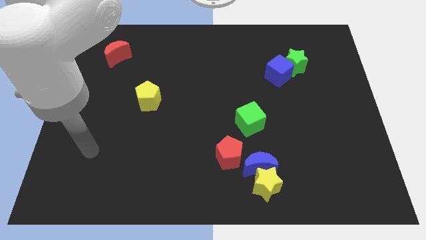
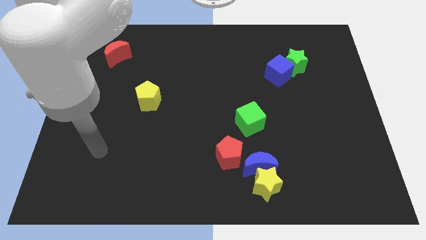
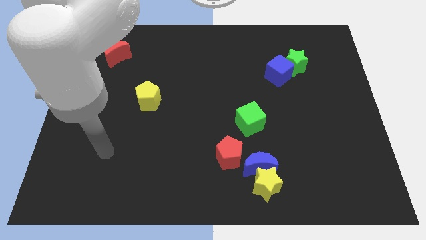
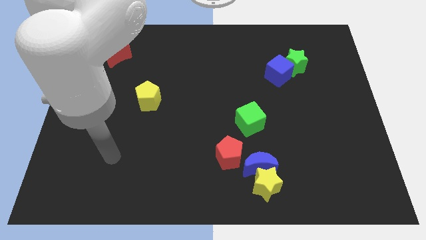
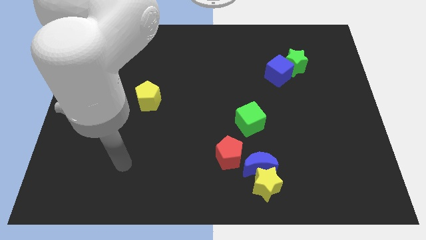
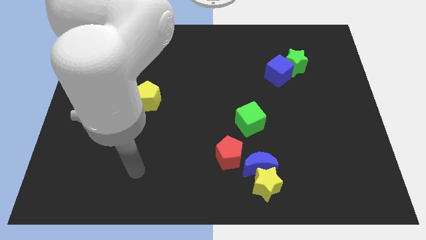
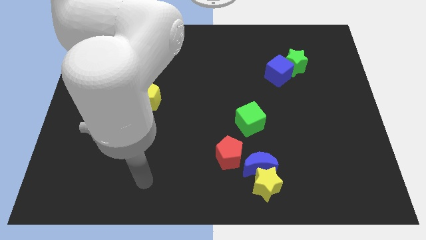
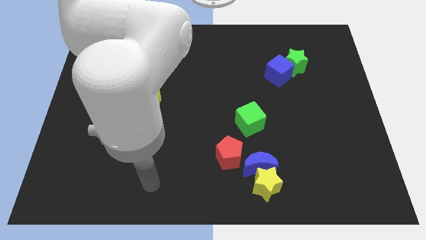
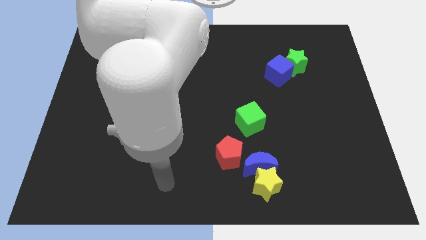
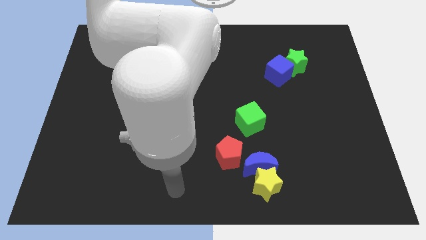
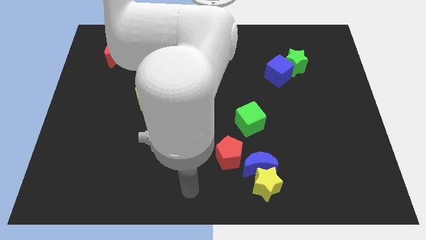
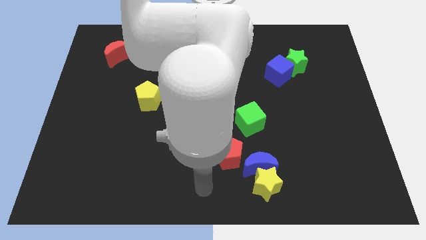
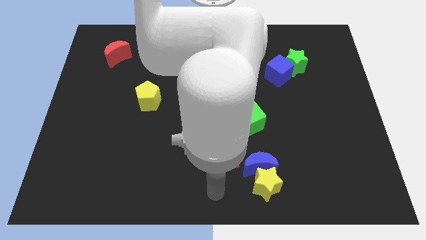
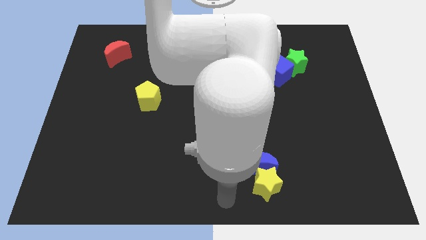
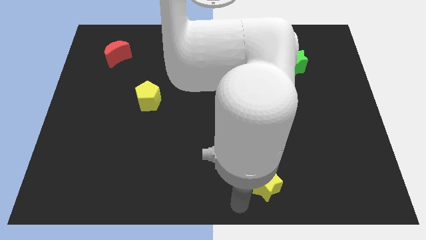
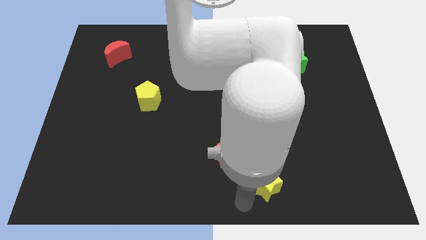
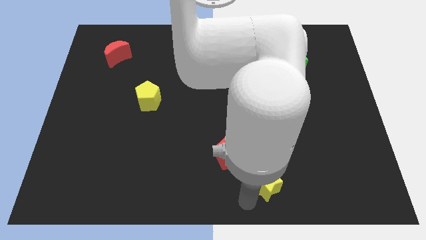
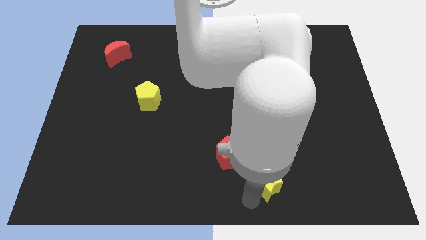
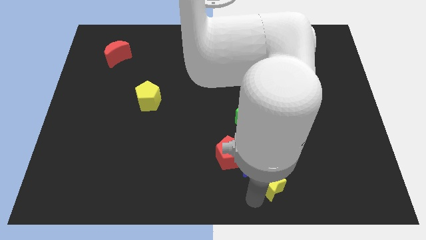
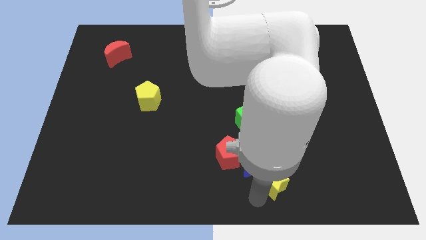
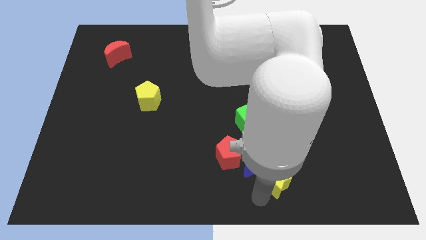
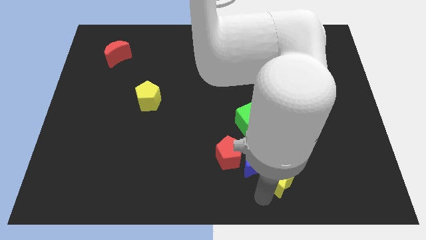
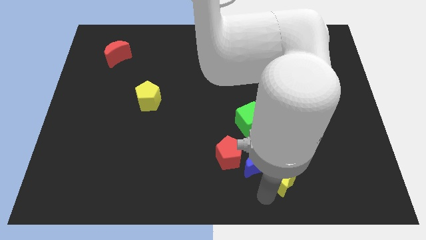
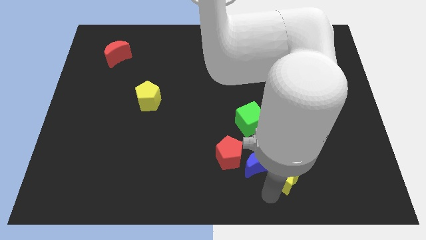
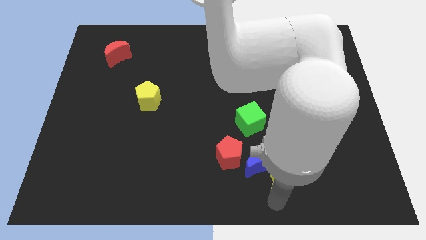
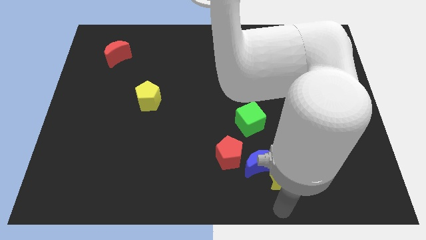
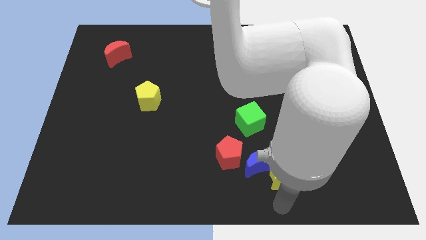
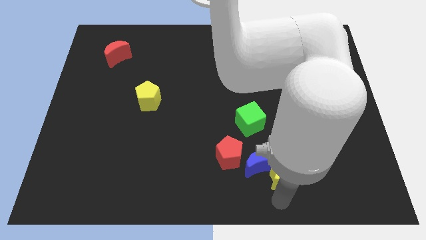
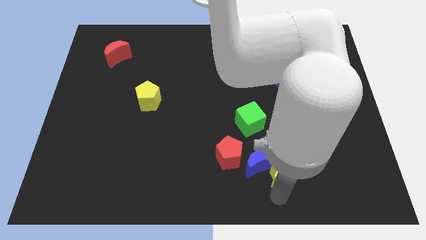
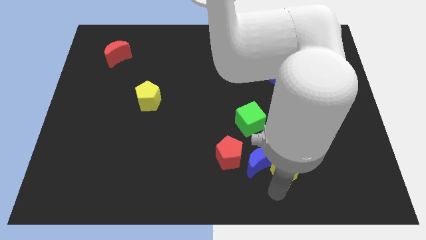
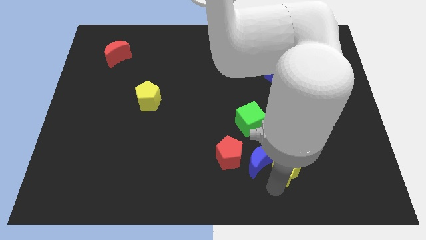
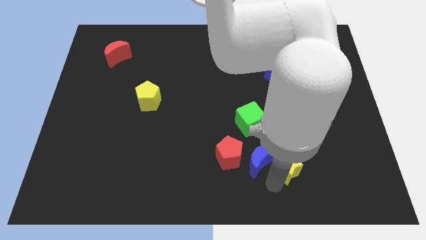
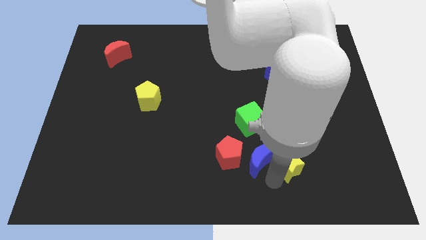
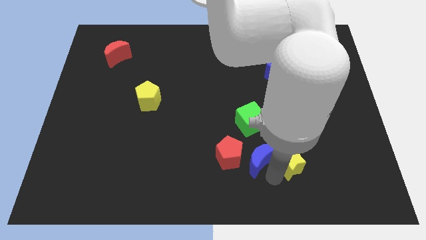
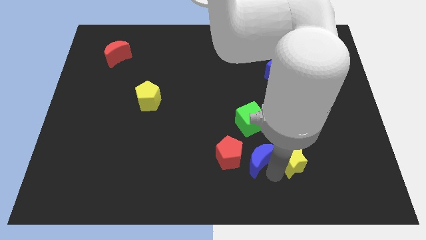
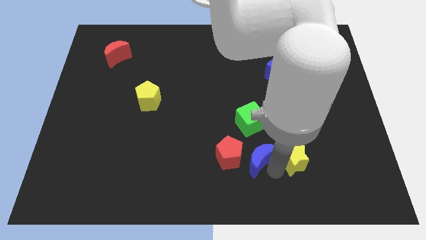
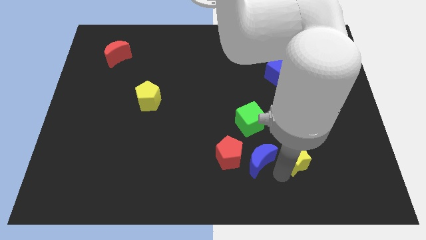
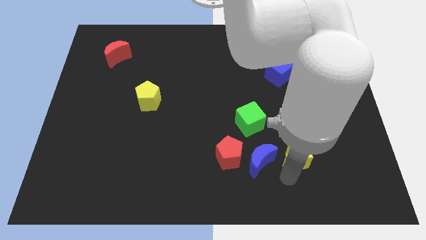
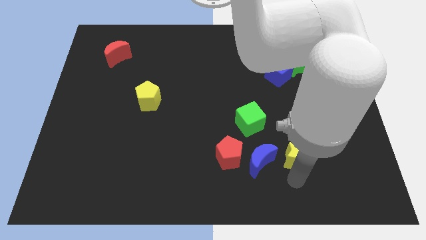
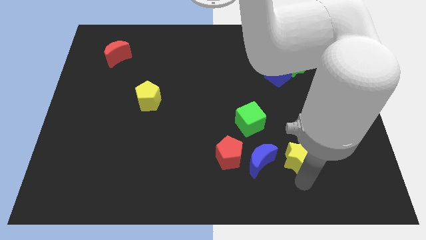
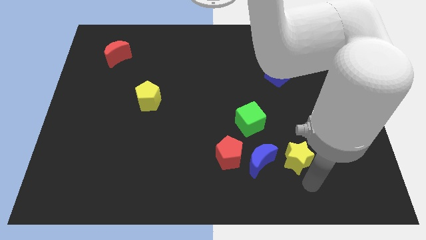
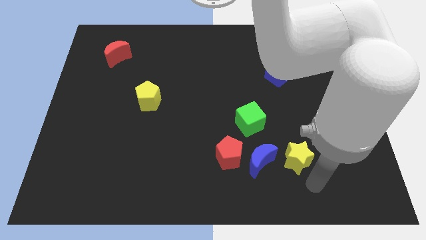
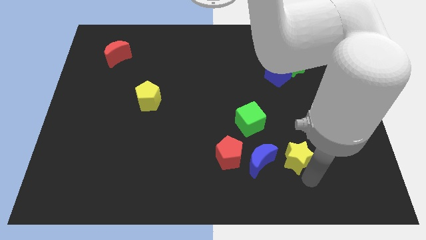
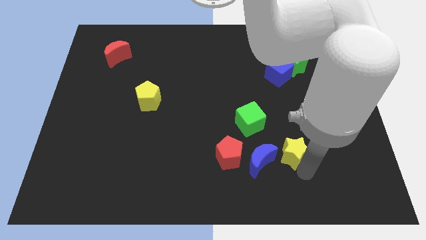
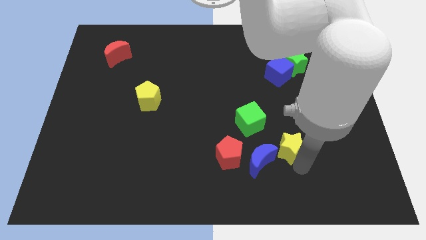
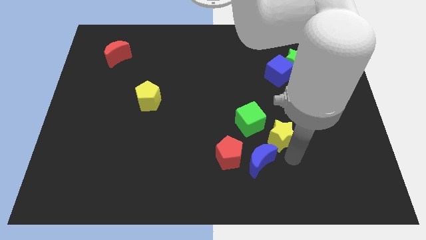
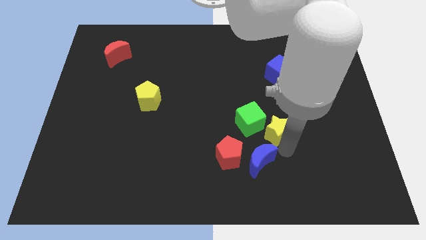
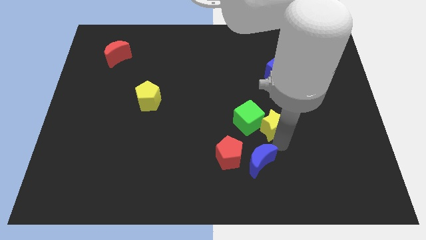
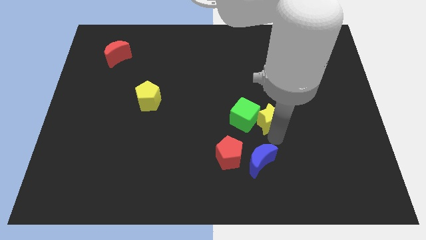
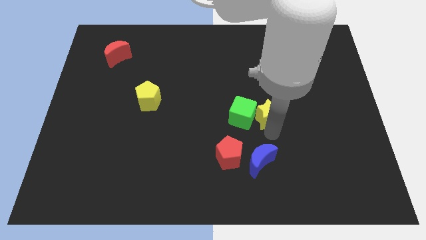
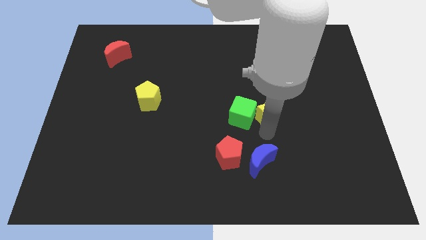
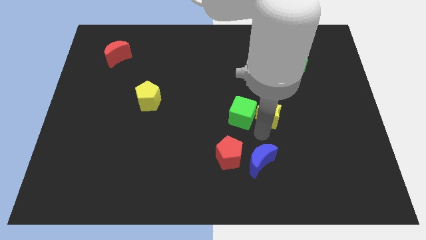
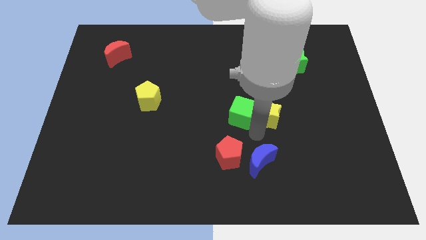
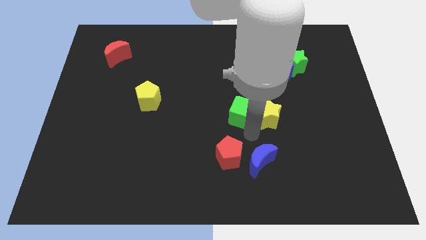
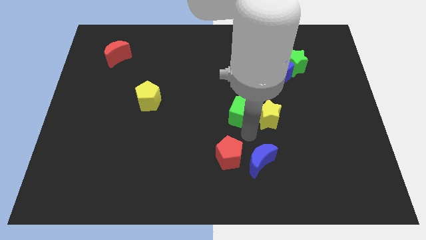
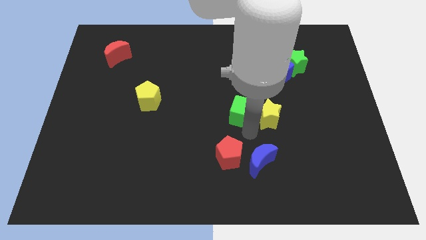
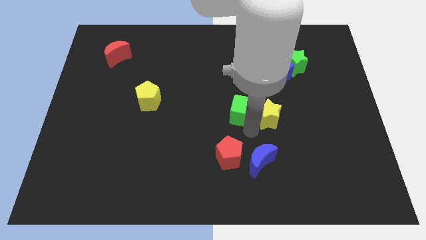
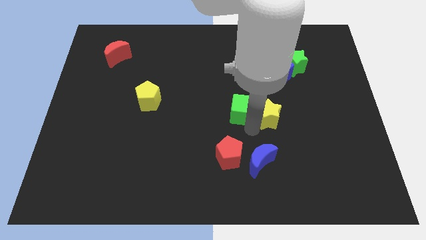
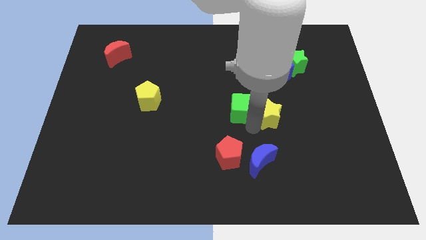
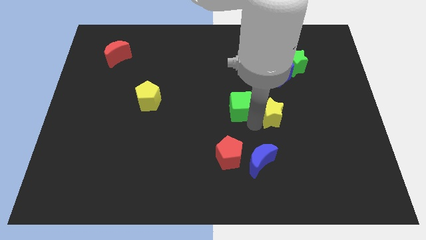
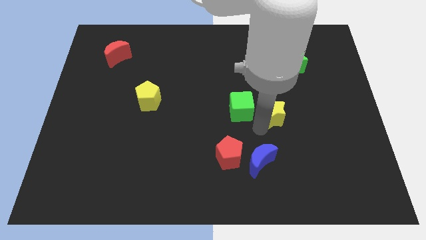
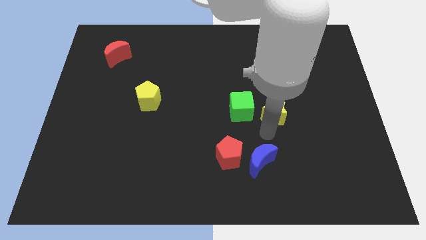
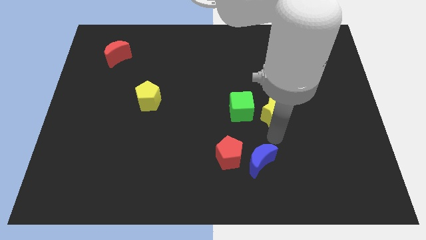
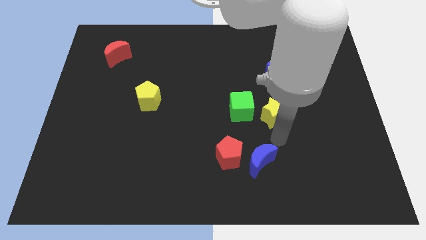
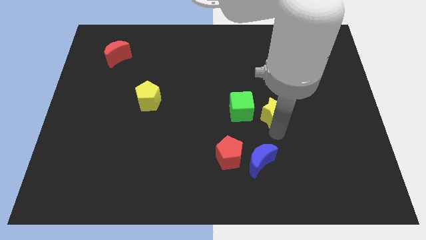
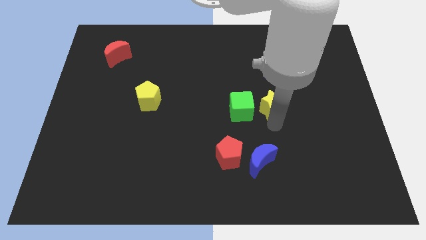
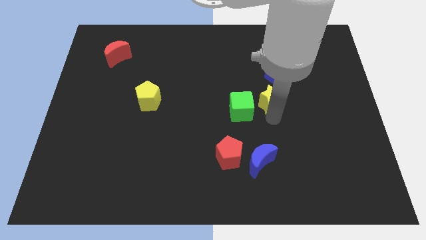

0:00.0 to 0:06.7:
slide the yellow star up

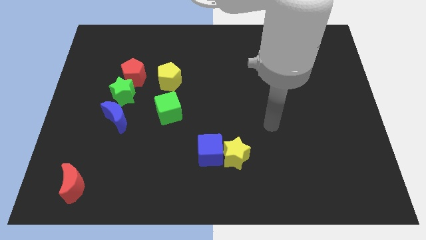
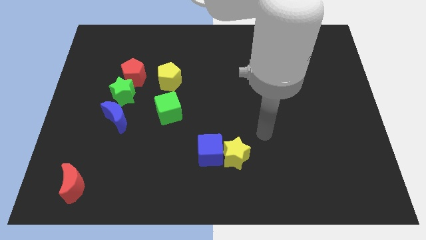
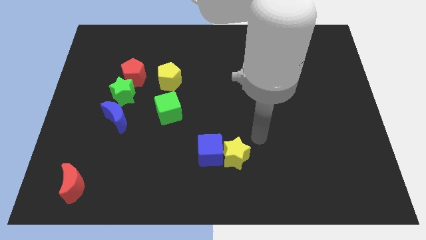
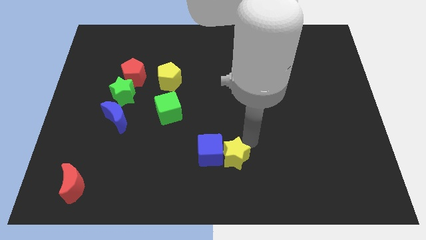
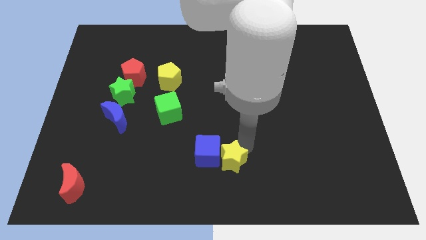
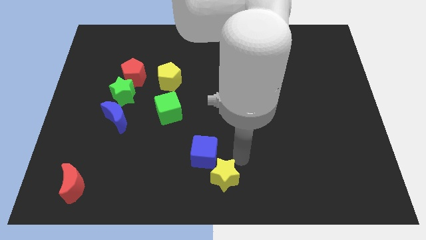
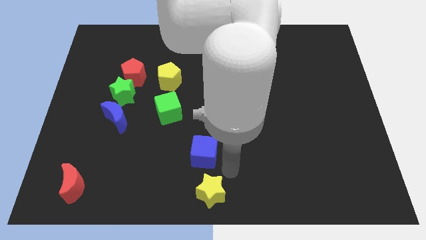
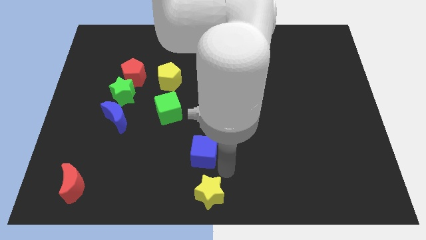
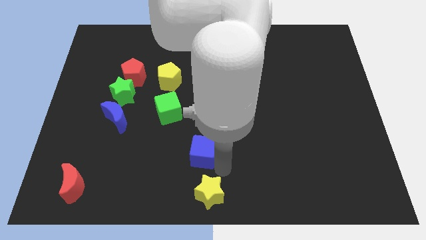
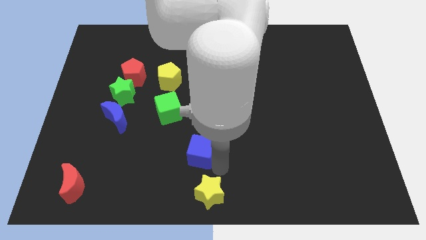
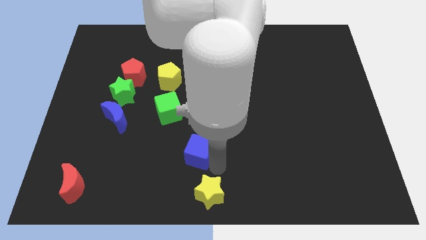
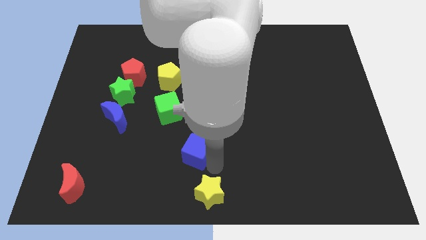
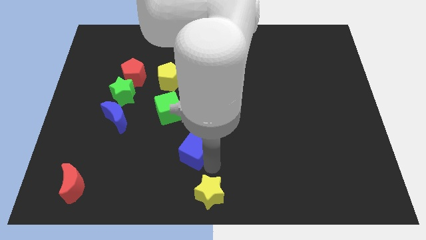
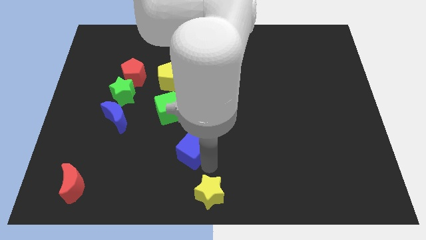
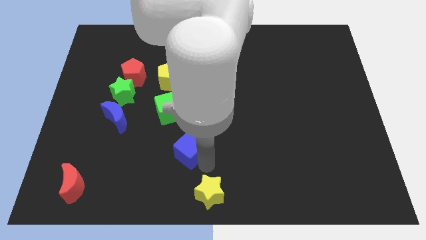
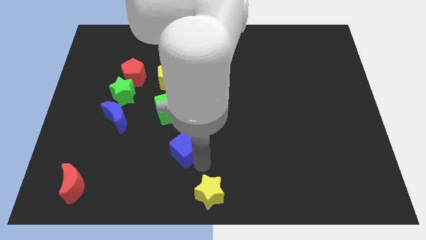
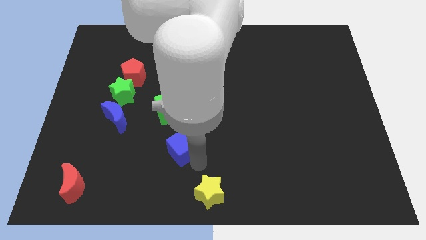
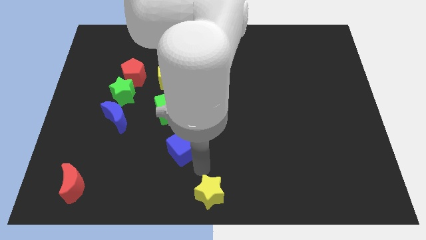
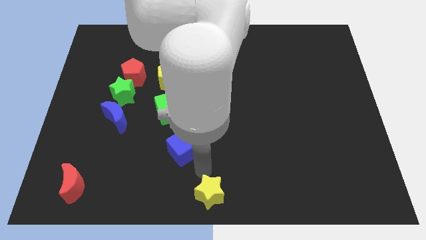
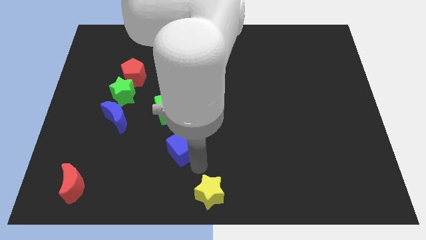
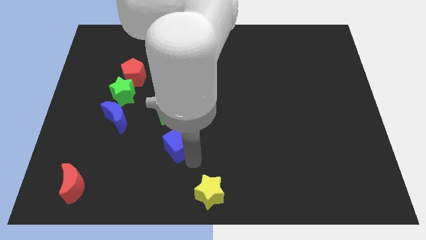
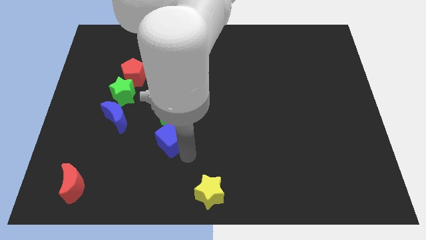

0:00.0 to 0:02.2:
push the blue cube slightly up and to the left
